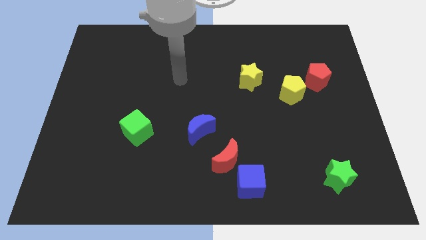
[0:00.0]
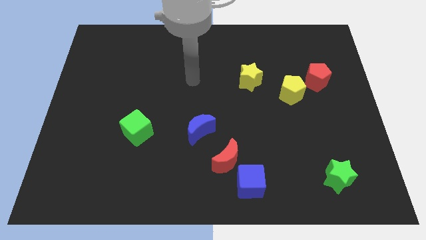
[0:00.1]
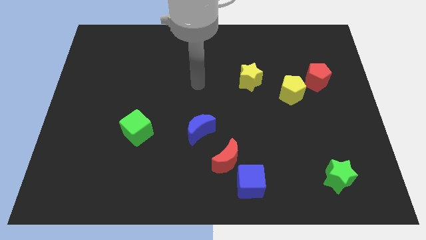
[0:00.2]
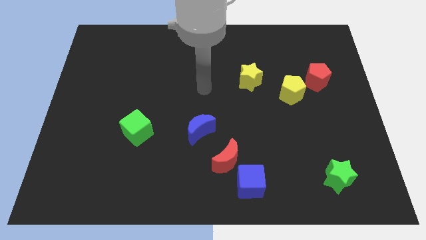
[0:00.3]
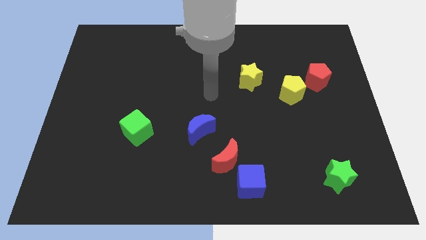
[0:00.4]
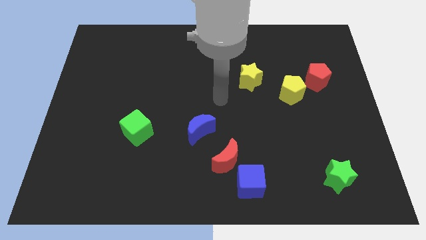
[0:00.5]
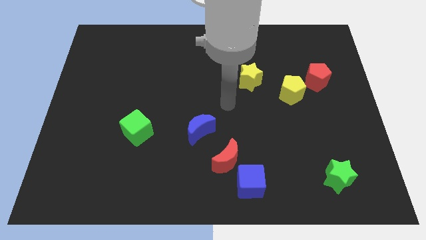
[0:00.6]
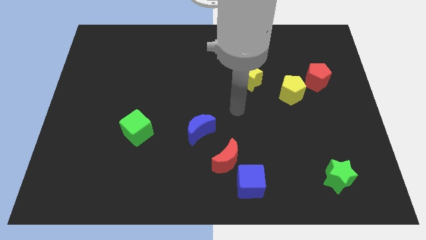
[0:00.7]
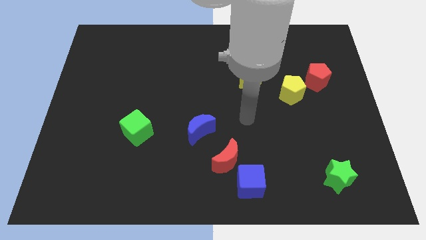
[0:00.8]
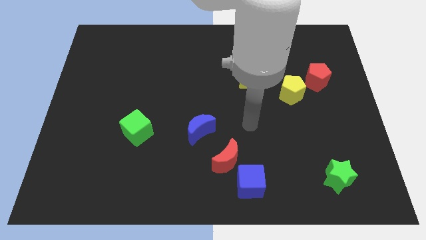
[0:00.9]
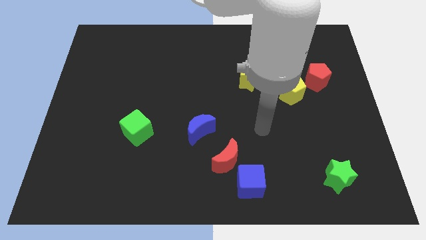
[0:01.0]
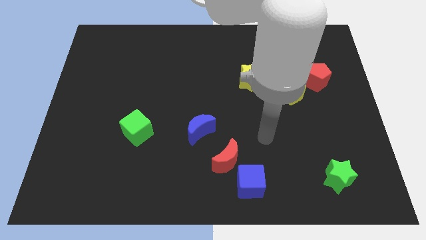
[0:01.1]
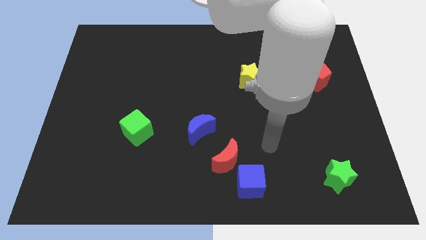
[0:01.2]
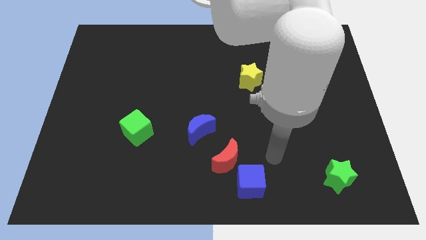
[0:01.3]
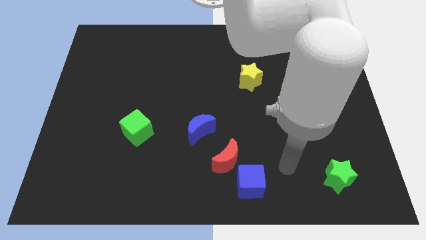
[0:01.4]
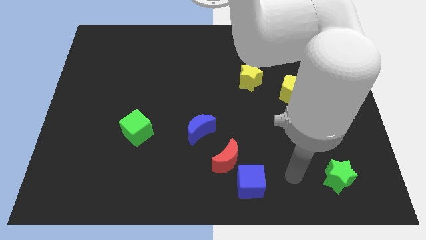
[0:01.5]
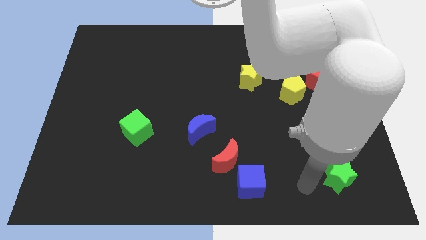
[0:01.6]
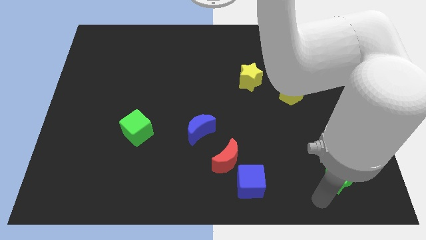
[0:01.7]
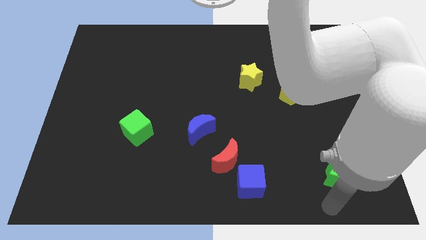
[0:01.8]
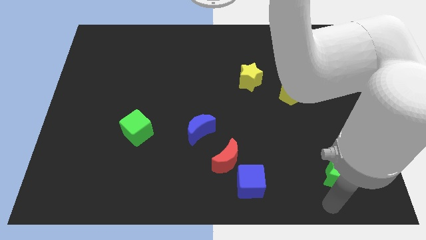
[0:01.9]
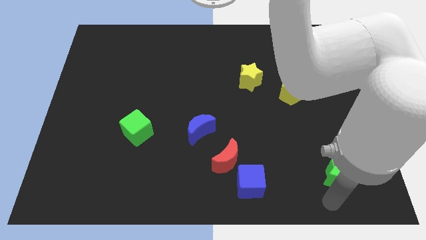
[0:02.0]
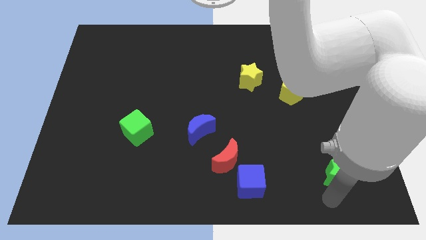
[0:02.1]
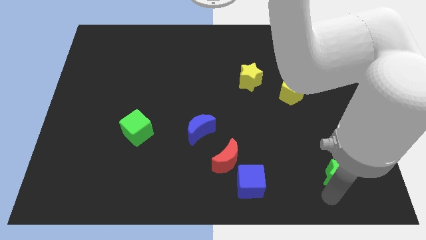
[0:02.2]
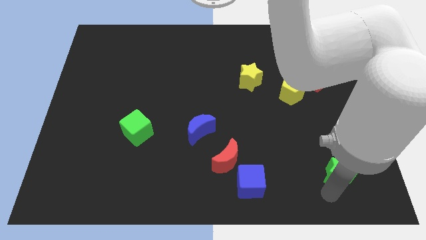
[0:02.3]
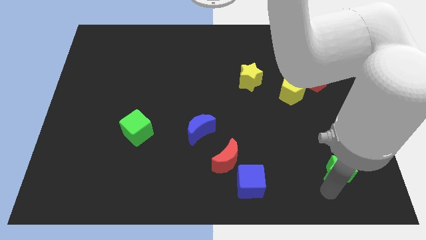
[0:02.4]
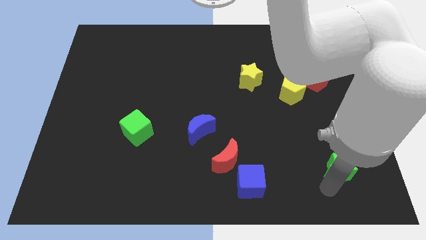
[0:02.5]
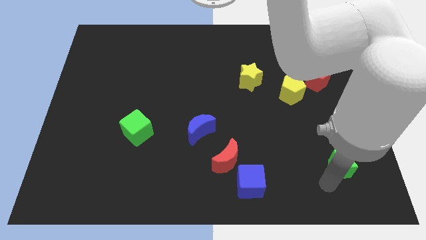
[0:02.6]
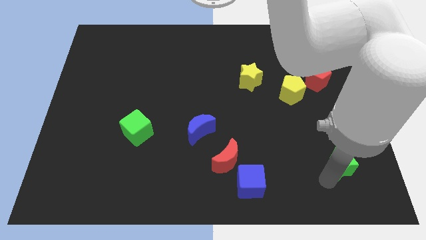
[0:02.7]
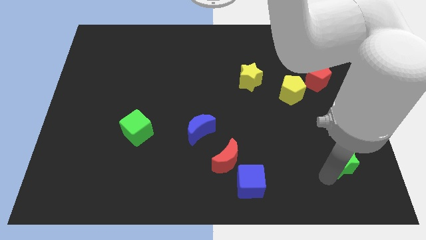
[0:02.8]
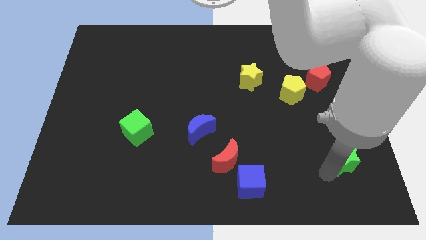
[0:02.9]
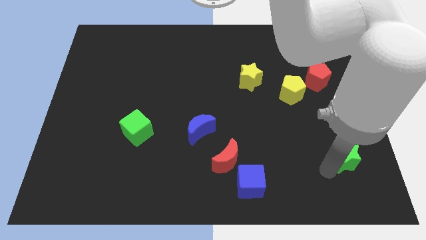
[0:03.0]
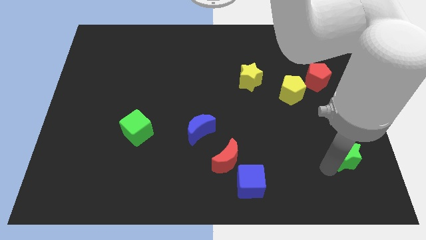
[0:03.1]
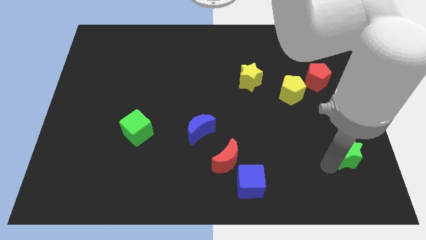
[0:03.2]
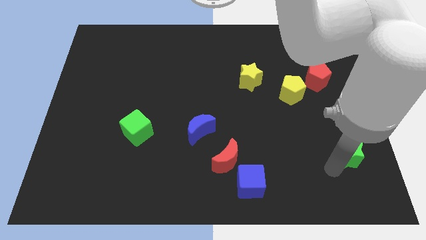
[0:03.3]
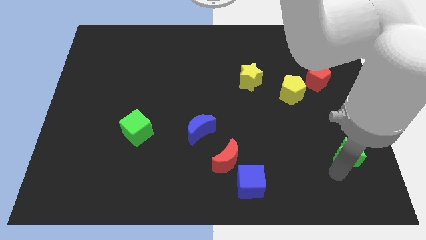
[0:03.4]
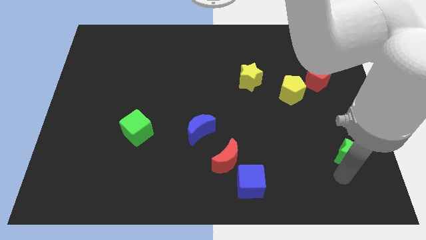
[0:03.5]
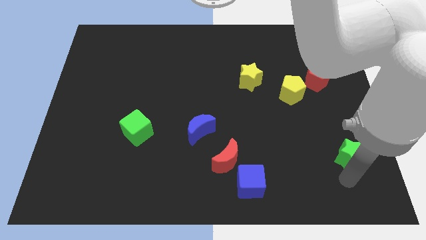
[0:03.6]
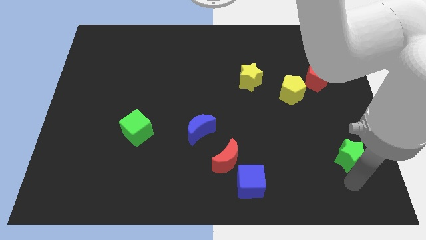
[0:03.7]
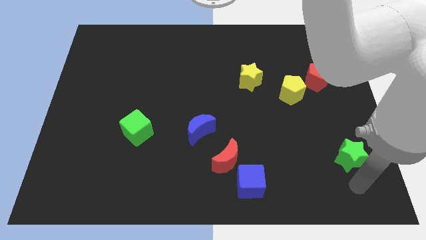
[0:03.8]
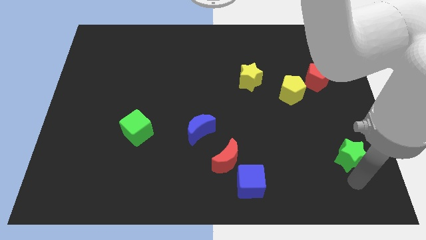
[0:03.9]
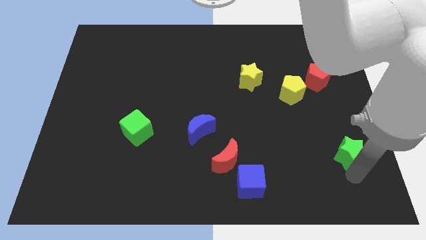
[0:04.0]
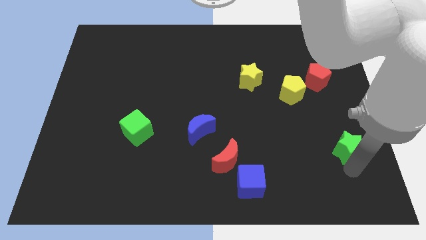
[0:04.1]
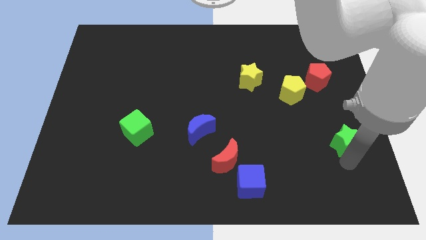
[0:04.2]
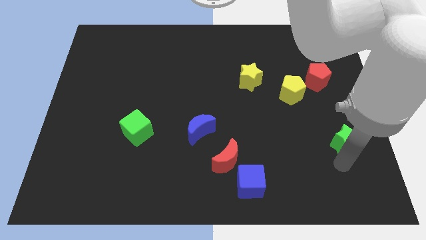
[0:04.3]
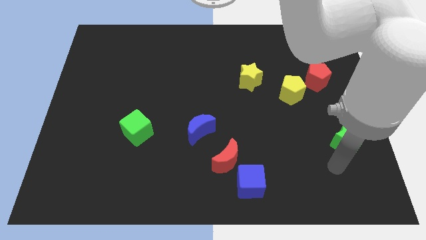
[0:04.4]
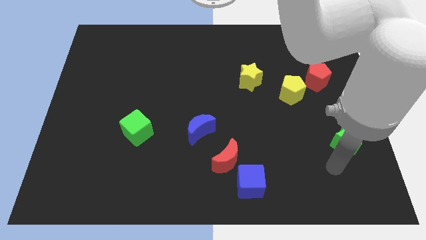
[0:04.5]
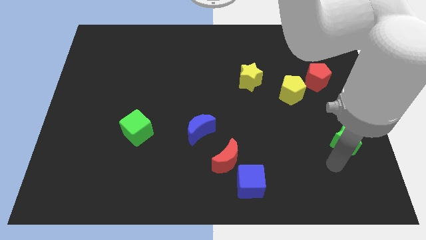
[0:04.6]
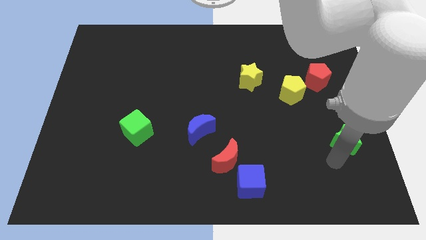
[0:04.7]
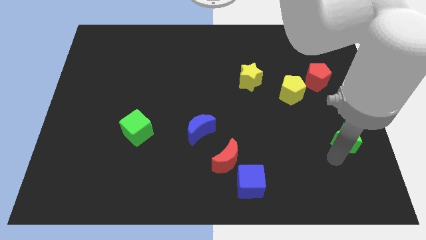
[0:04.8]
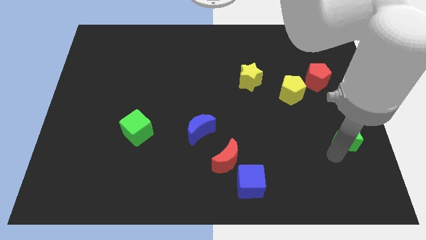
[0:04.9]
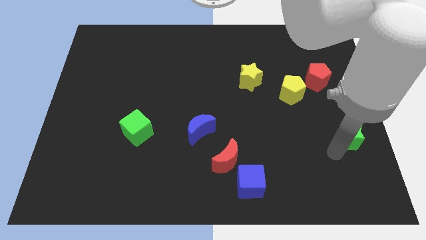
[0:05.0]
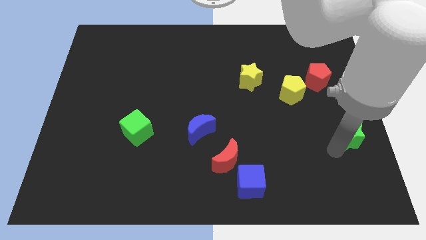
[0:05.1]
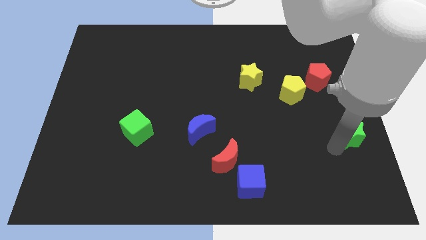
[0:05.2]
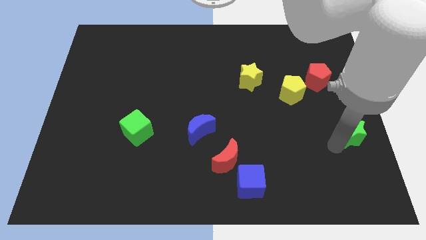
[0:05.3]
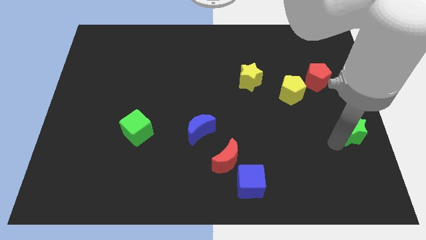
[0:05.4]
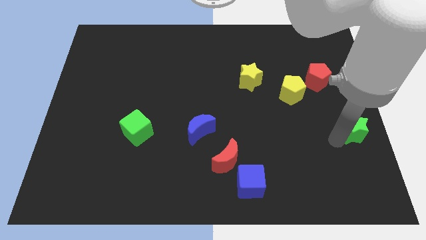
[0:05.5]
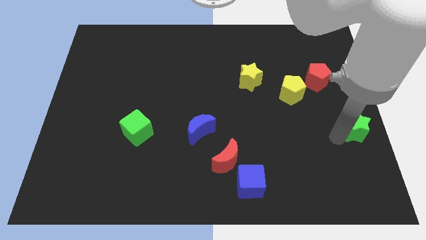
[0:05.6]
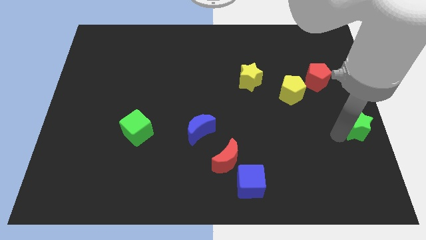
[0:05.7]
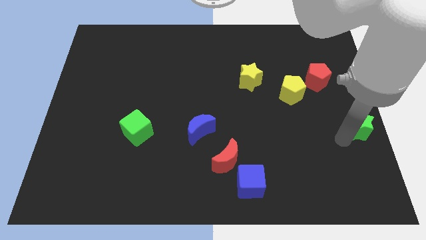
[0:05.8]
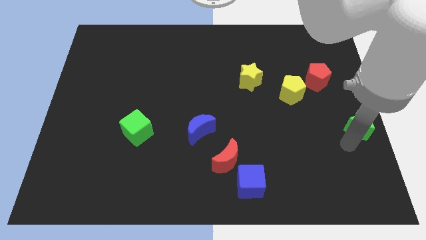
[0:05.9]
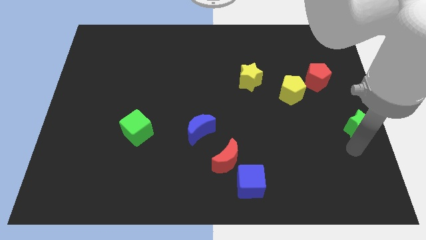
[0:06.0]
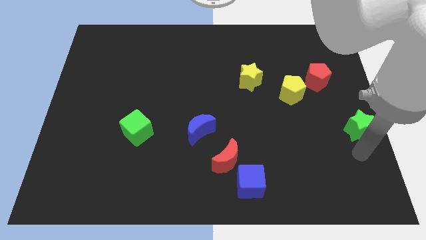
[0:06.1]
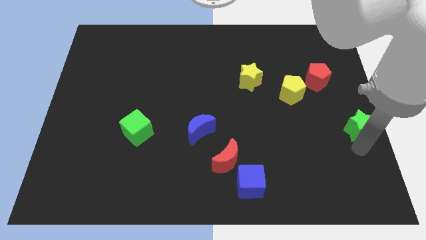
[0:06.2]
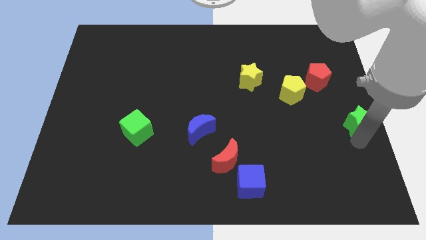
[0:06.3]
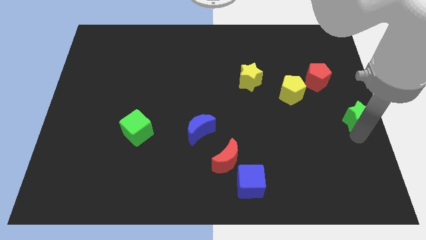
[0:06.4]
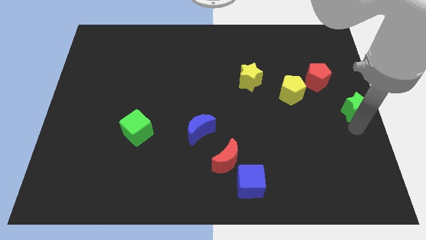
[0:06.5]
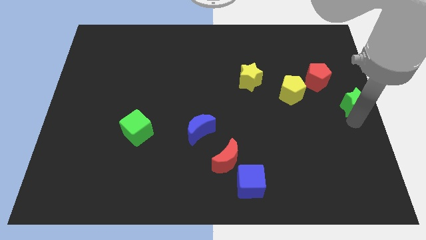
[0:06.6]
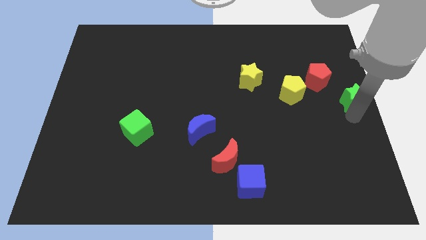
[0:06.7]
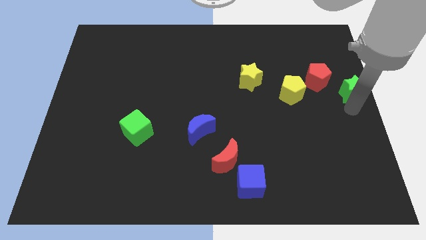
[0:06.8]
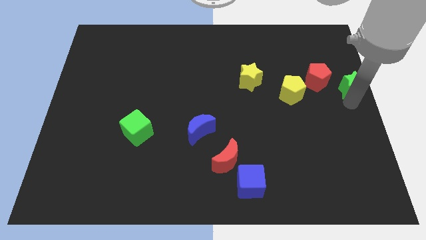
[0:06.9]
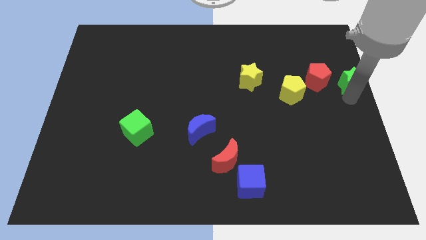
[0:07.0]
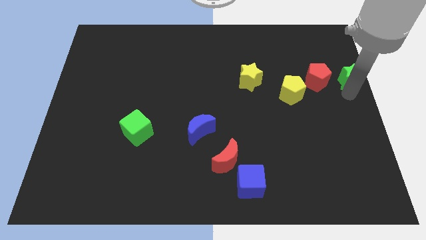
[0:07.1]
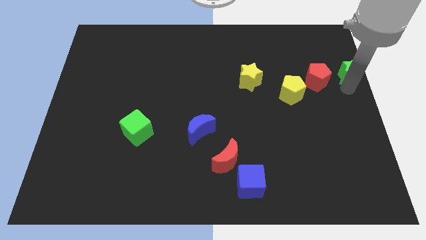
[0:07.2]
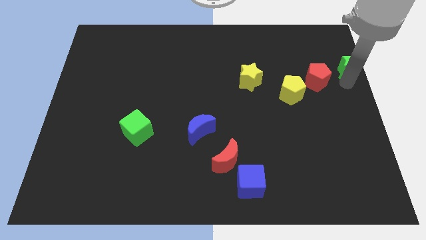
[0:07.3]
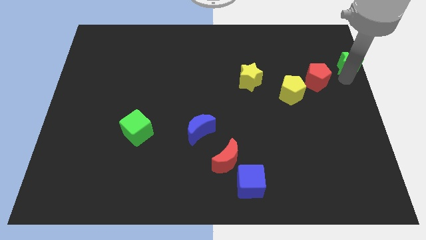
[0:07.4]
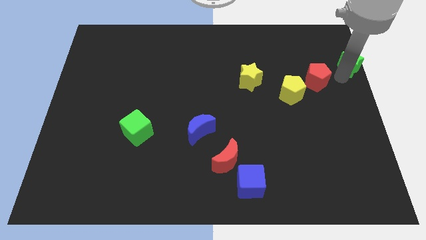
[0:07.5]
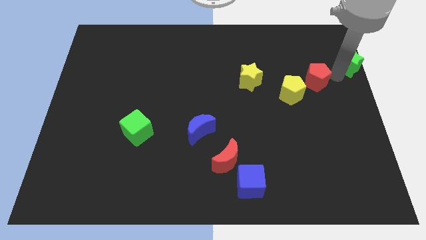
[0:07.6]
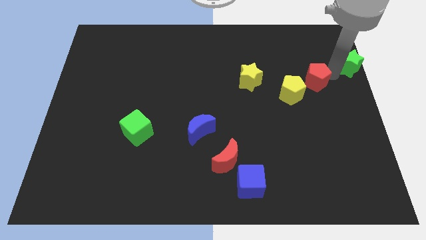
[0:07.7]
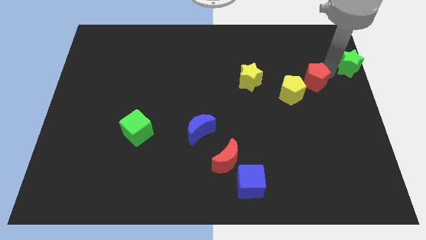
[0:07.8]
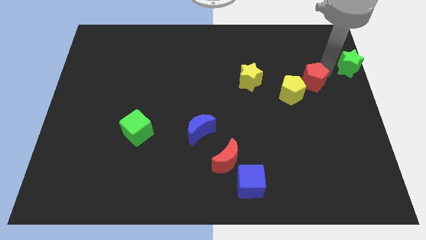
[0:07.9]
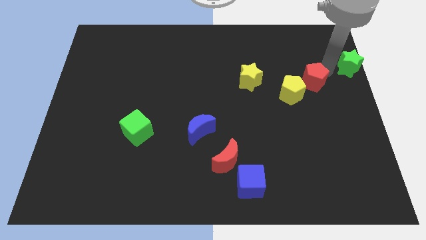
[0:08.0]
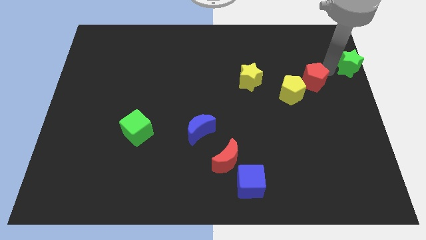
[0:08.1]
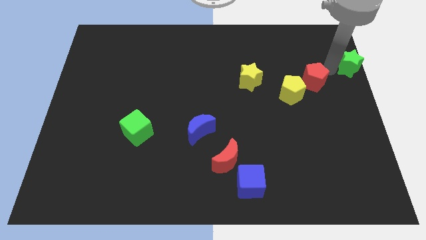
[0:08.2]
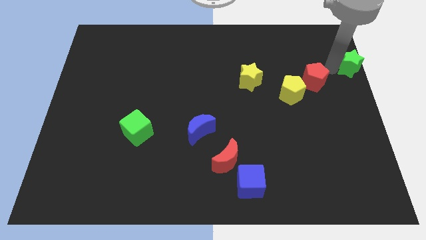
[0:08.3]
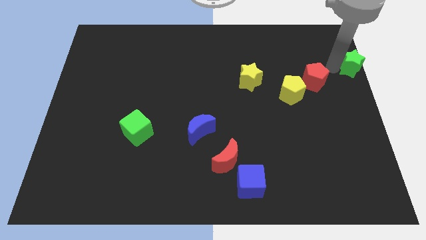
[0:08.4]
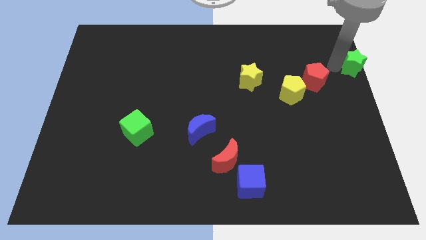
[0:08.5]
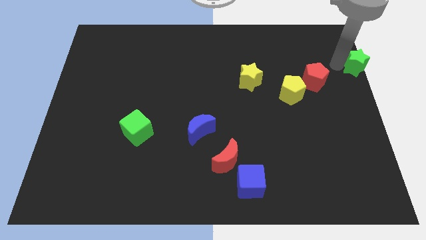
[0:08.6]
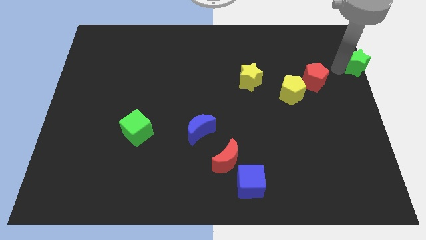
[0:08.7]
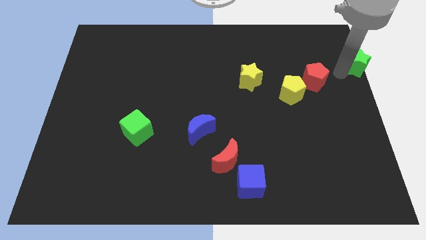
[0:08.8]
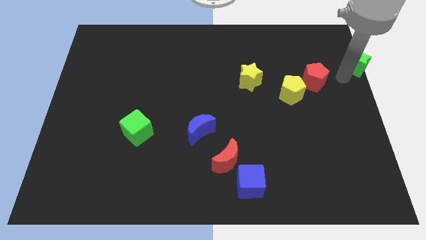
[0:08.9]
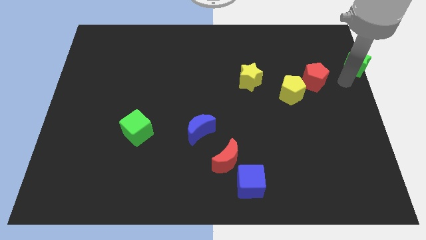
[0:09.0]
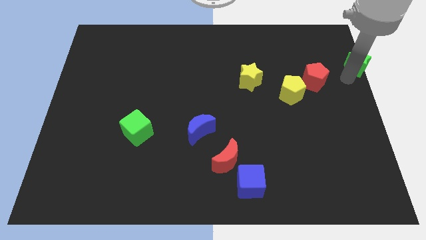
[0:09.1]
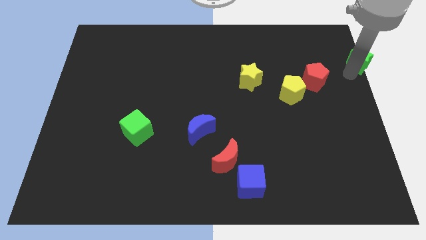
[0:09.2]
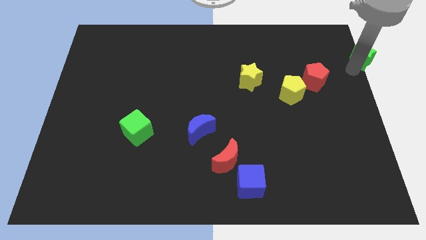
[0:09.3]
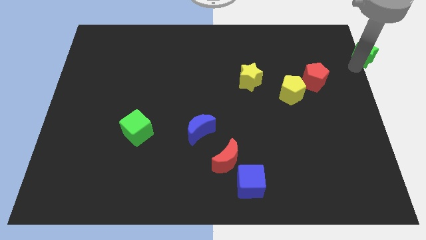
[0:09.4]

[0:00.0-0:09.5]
move the green star to the top right
